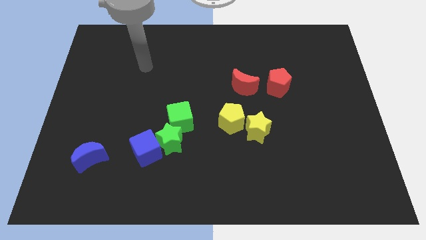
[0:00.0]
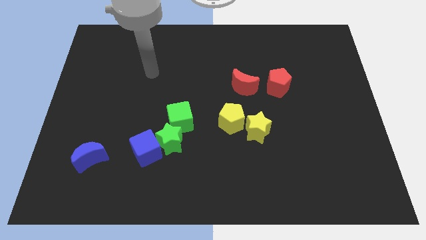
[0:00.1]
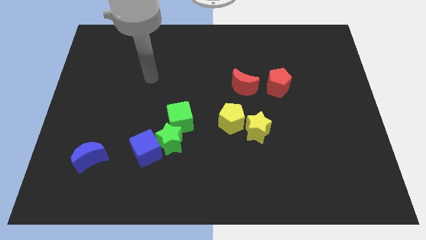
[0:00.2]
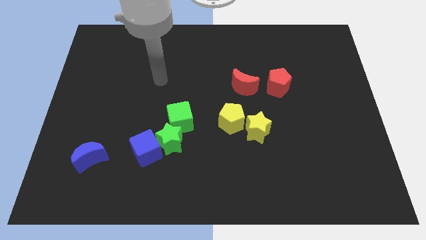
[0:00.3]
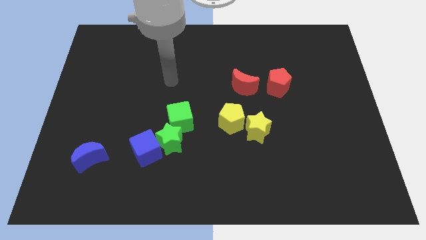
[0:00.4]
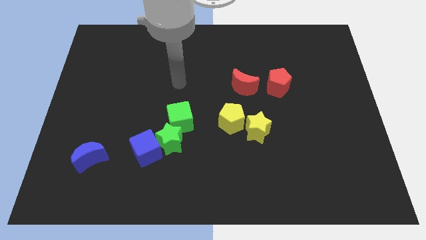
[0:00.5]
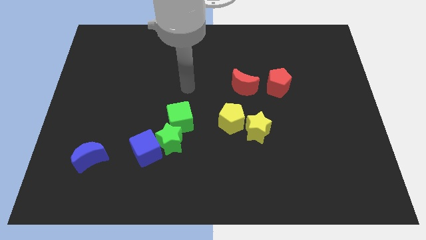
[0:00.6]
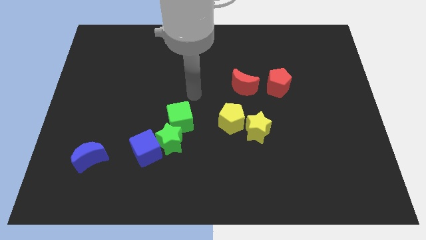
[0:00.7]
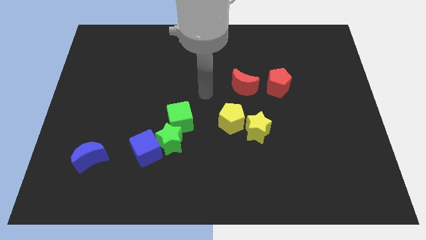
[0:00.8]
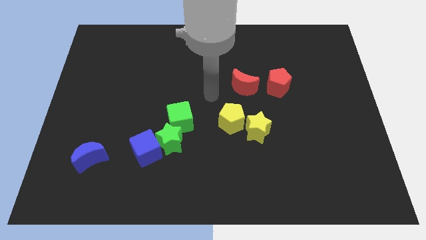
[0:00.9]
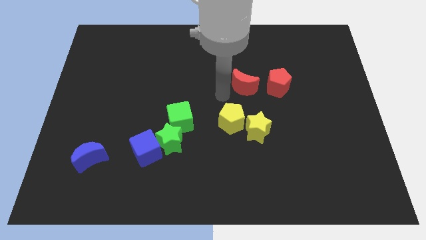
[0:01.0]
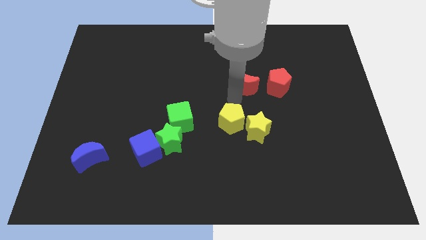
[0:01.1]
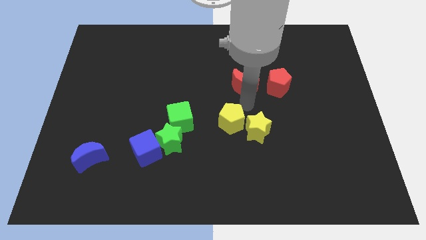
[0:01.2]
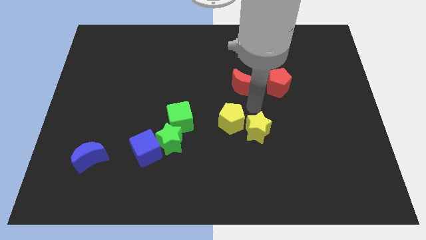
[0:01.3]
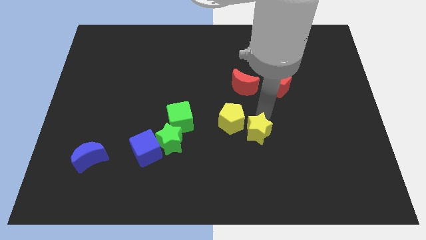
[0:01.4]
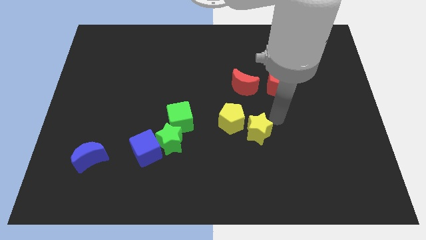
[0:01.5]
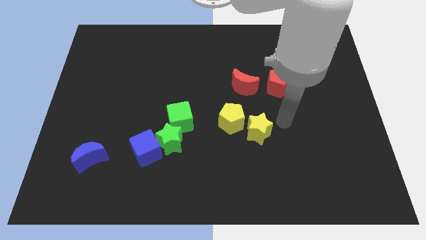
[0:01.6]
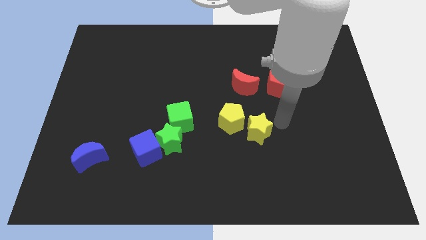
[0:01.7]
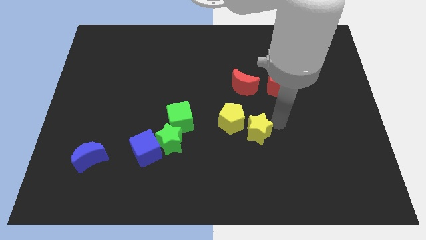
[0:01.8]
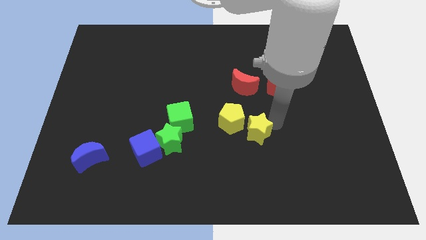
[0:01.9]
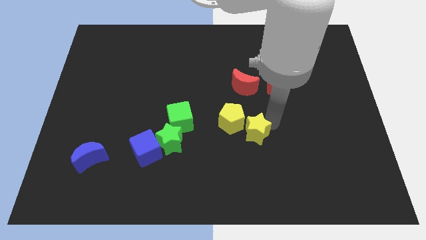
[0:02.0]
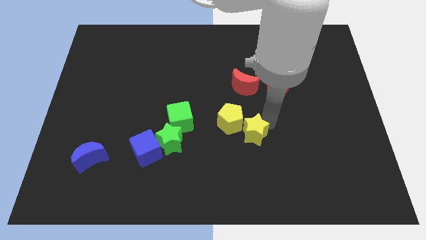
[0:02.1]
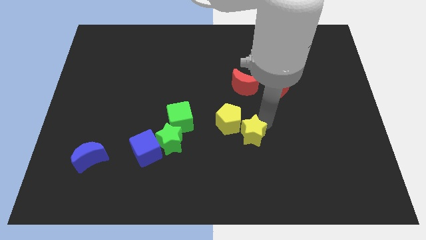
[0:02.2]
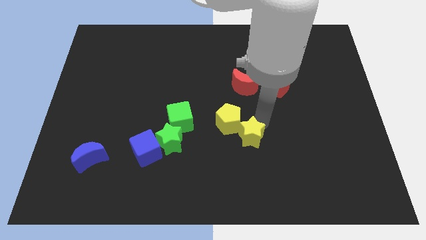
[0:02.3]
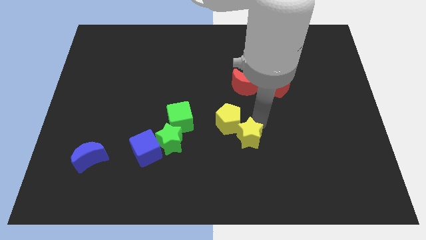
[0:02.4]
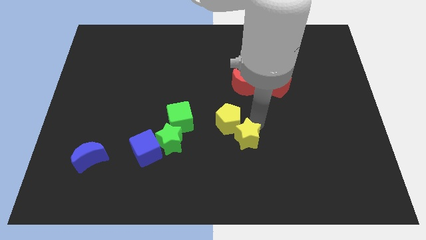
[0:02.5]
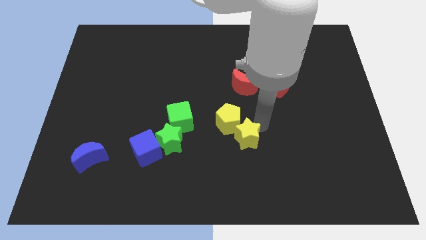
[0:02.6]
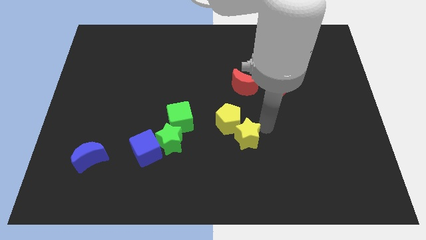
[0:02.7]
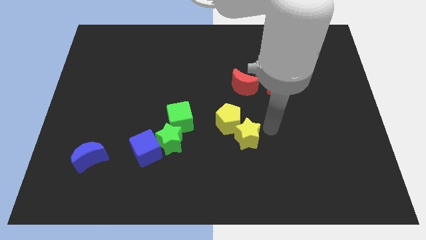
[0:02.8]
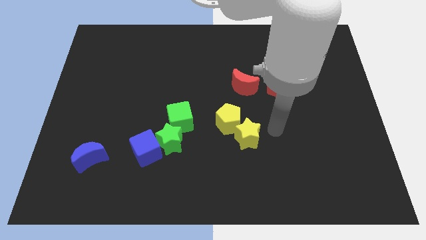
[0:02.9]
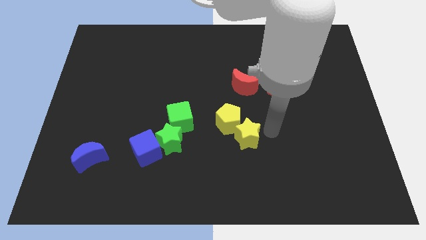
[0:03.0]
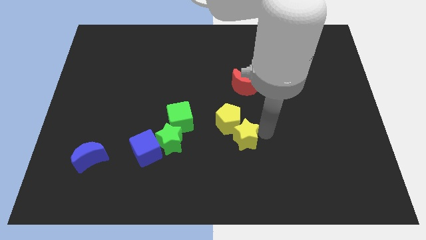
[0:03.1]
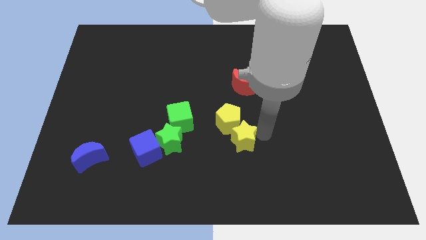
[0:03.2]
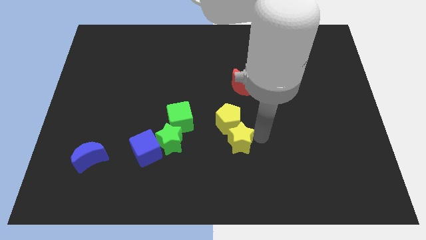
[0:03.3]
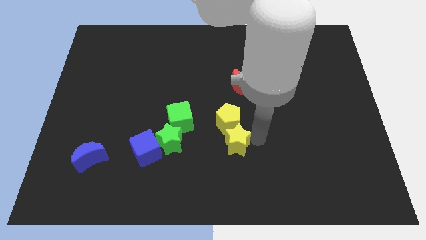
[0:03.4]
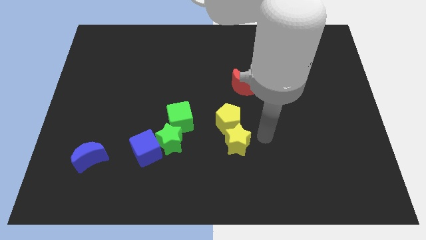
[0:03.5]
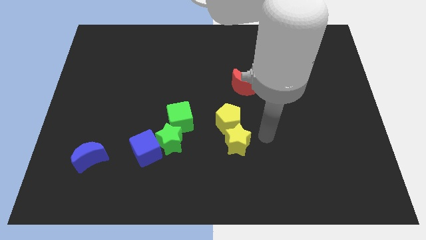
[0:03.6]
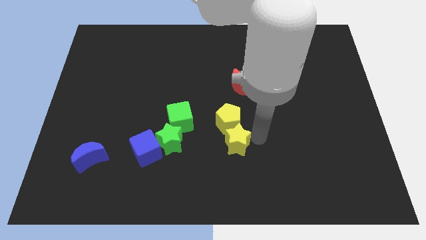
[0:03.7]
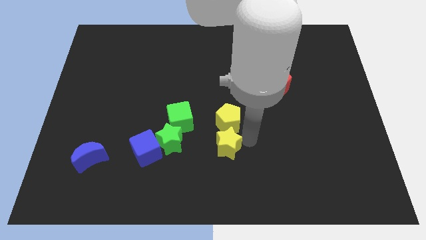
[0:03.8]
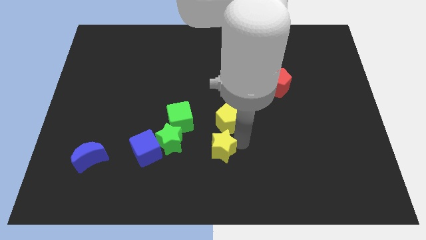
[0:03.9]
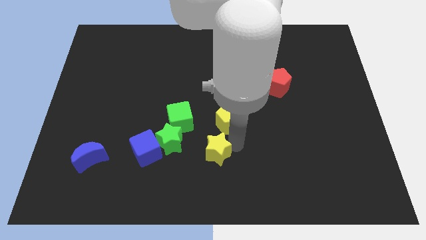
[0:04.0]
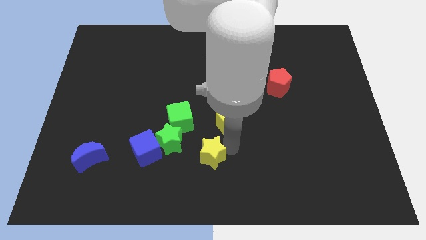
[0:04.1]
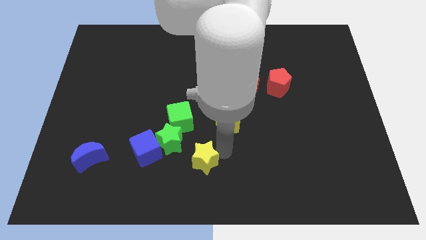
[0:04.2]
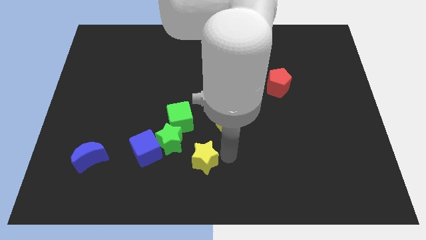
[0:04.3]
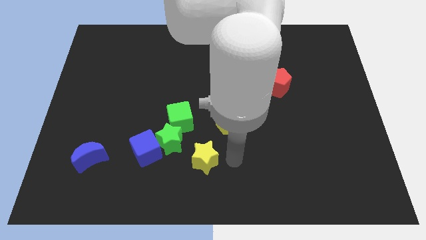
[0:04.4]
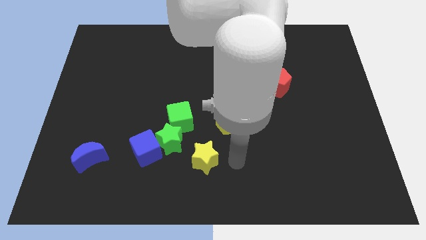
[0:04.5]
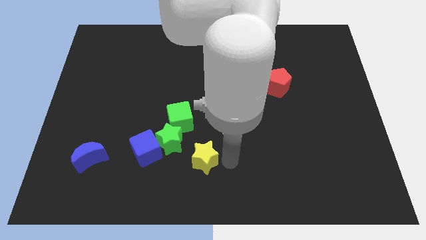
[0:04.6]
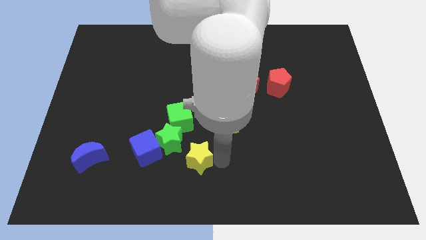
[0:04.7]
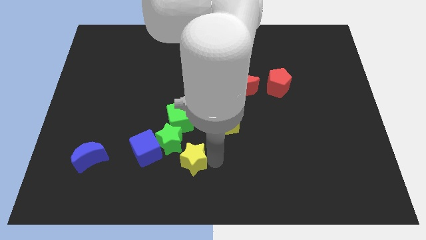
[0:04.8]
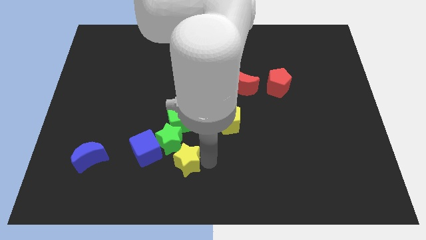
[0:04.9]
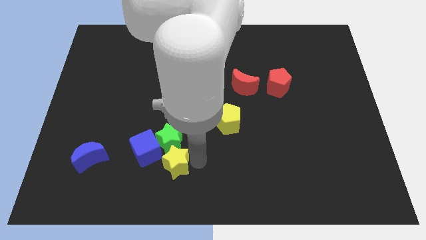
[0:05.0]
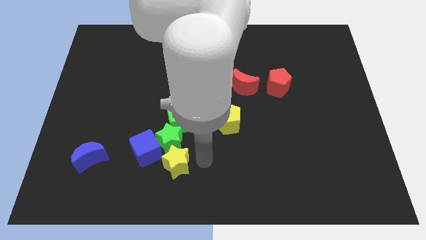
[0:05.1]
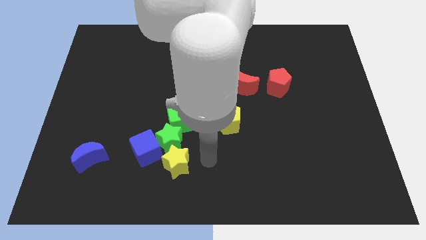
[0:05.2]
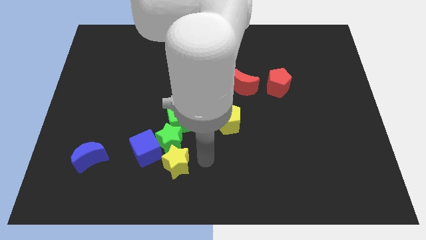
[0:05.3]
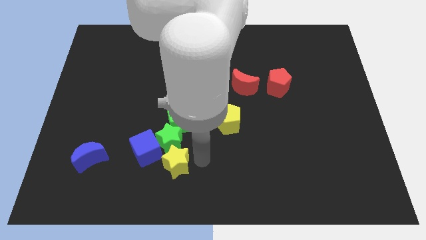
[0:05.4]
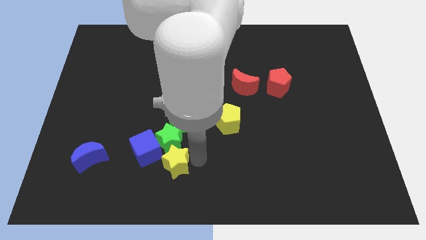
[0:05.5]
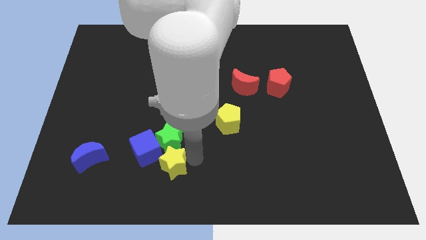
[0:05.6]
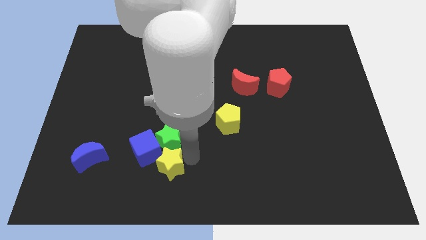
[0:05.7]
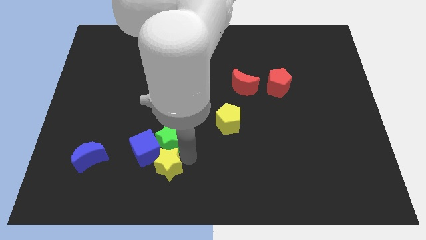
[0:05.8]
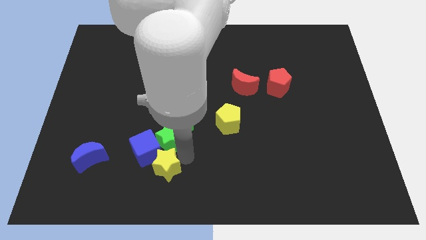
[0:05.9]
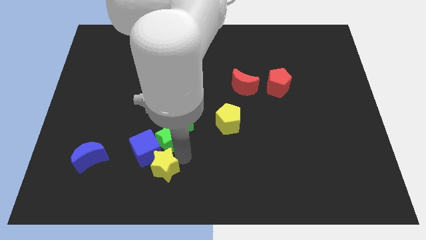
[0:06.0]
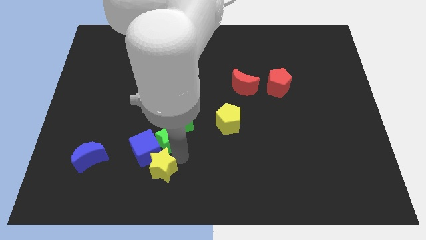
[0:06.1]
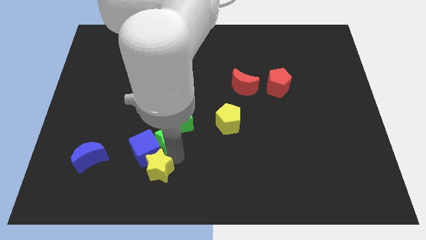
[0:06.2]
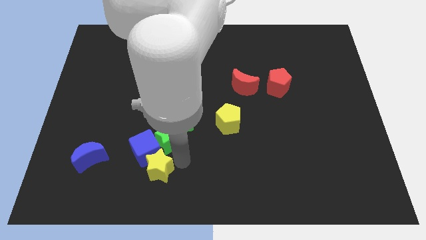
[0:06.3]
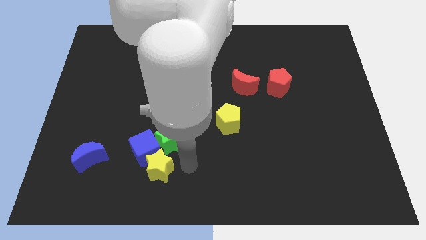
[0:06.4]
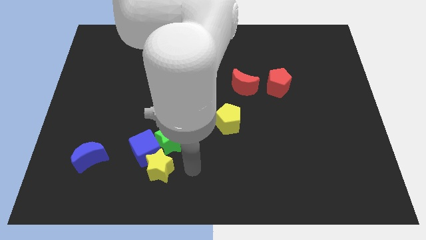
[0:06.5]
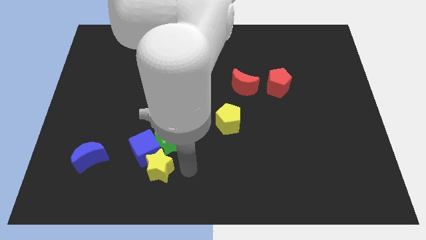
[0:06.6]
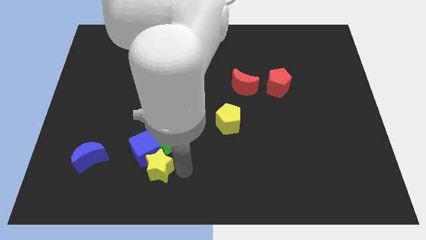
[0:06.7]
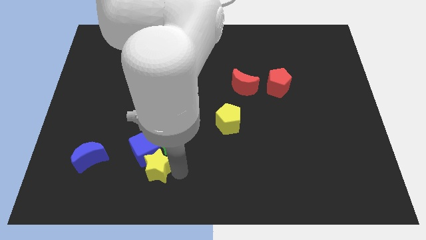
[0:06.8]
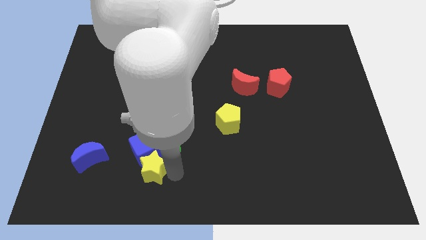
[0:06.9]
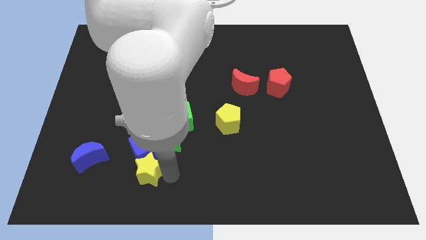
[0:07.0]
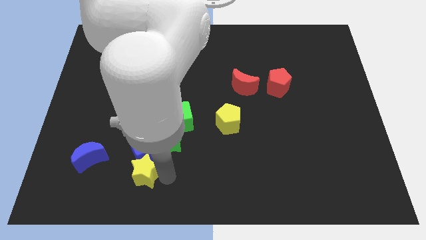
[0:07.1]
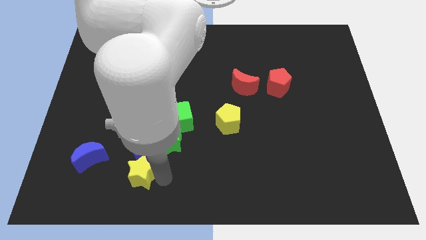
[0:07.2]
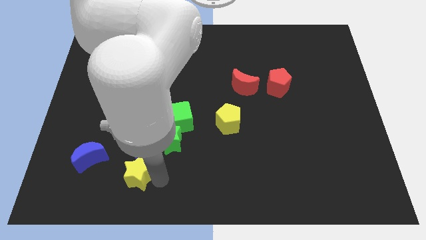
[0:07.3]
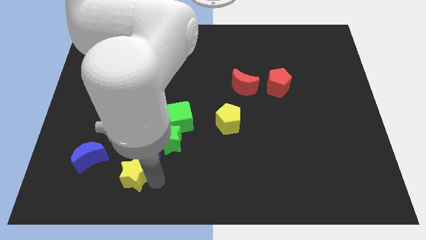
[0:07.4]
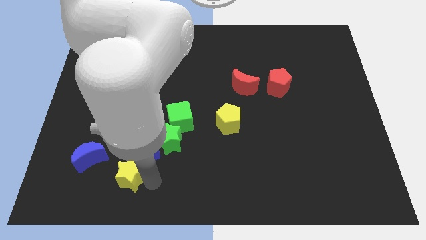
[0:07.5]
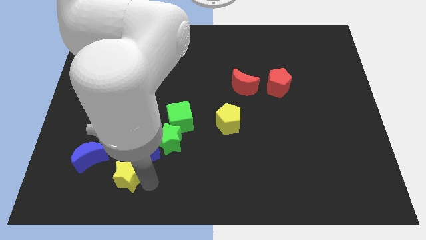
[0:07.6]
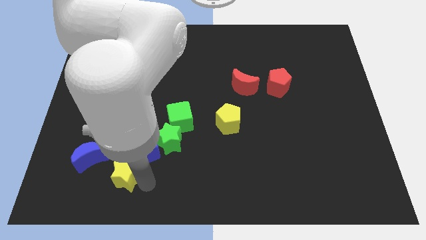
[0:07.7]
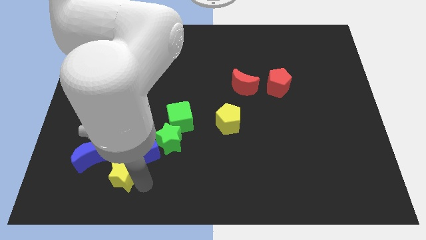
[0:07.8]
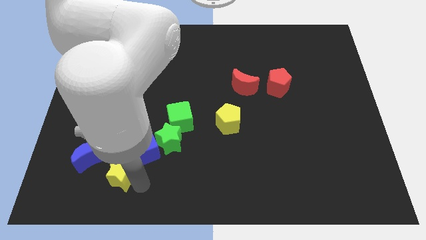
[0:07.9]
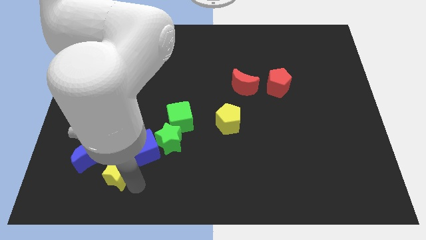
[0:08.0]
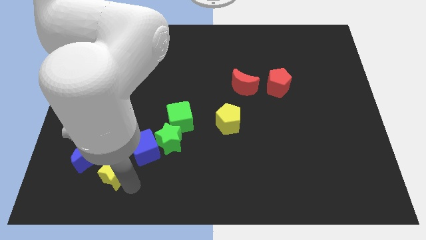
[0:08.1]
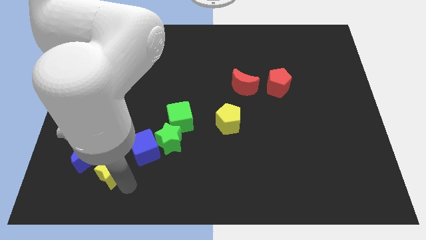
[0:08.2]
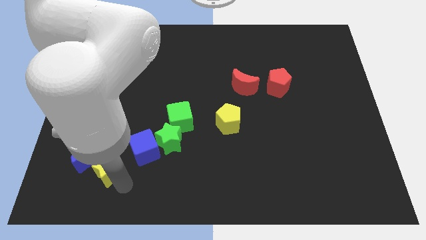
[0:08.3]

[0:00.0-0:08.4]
slide the yellow star close to the blue moon
